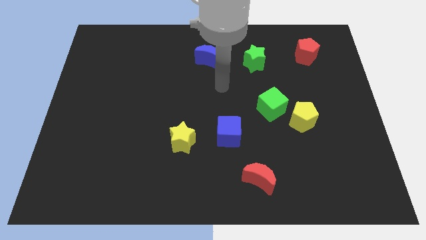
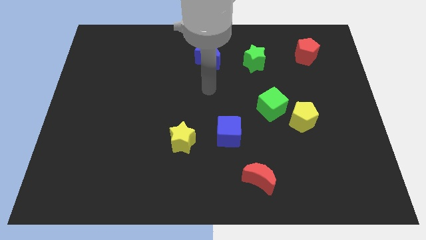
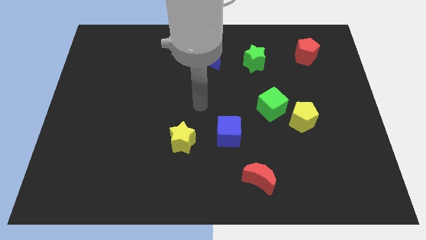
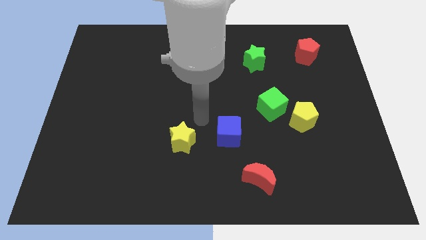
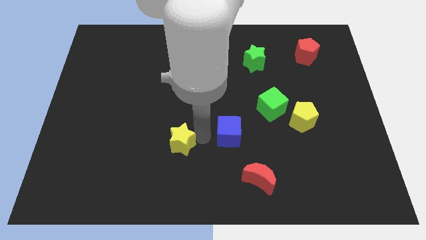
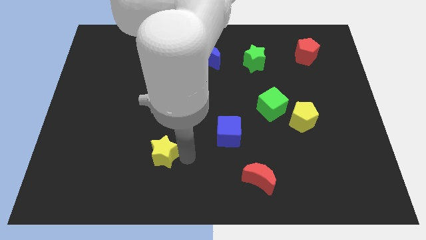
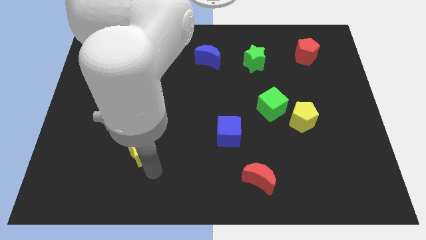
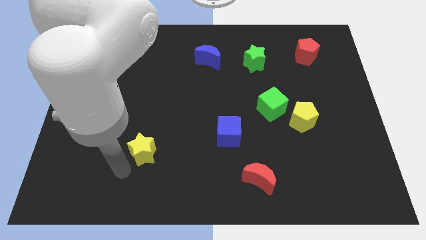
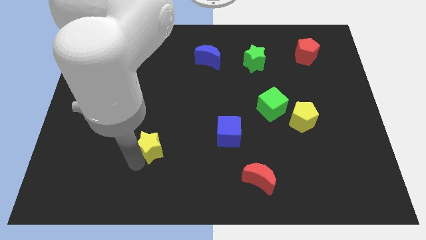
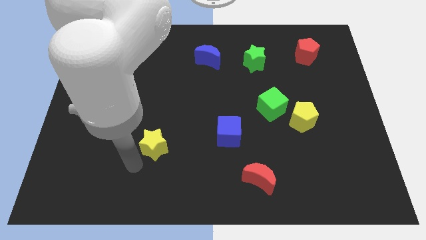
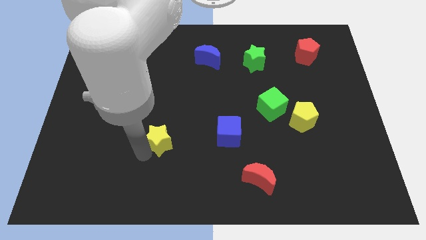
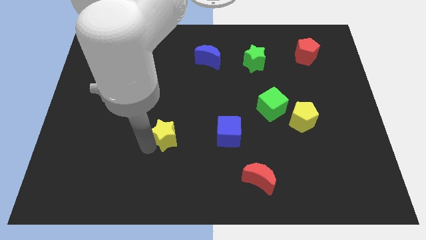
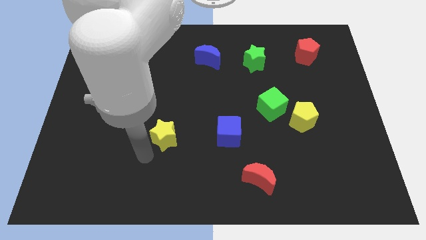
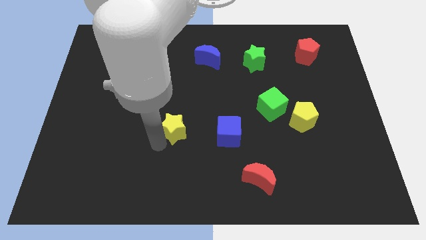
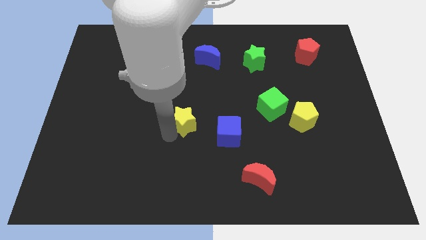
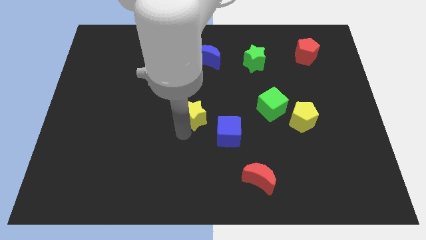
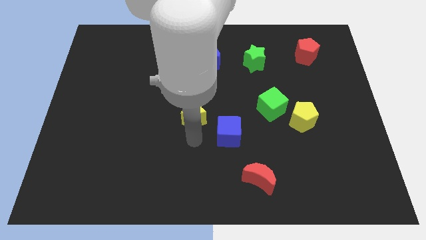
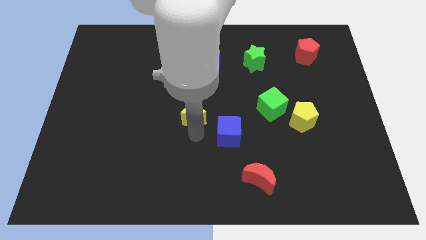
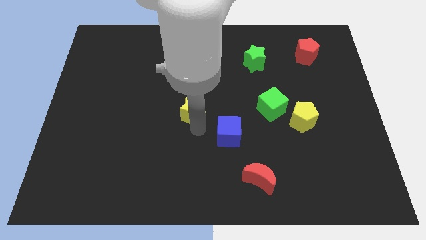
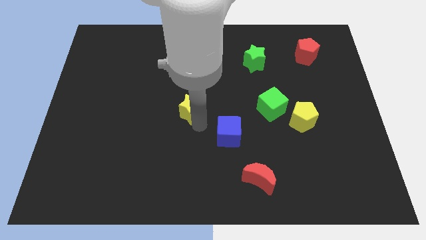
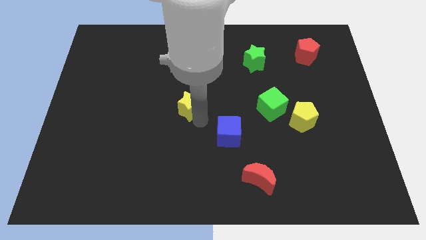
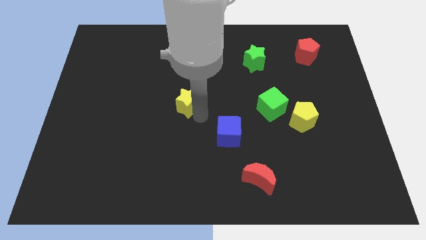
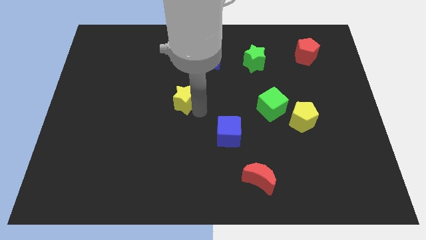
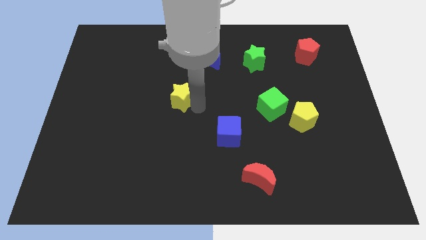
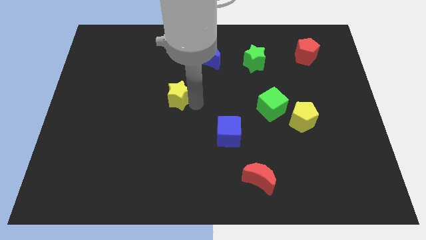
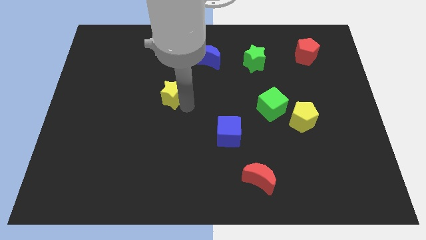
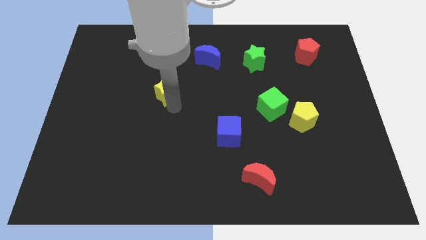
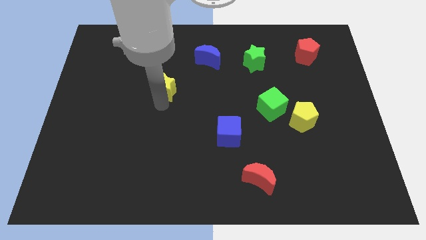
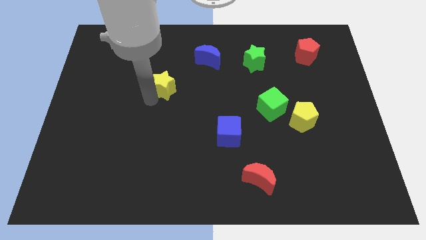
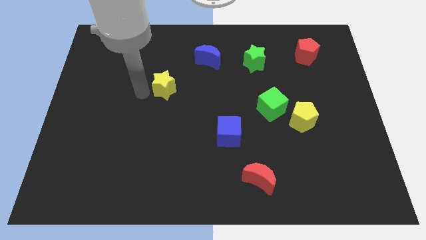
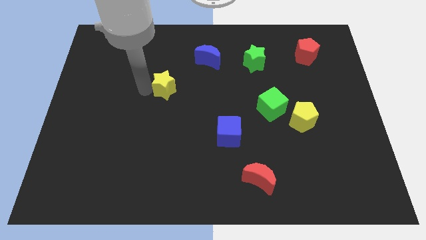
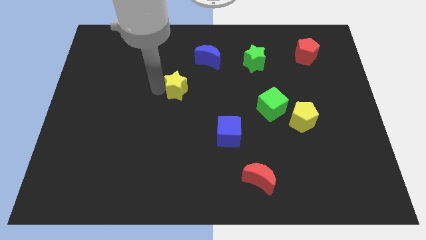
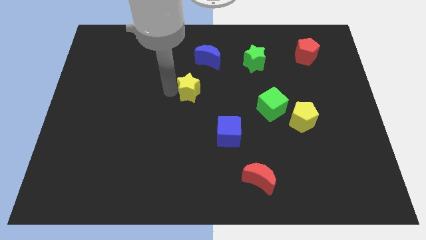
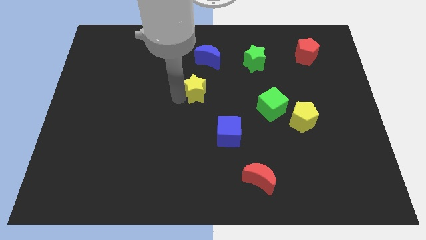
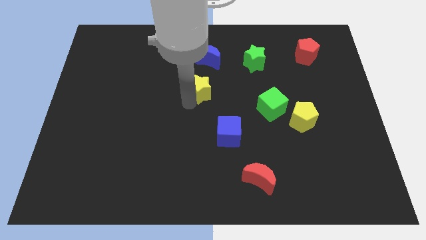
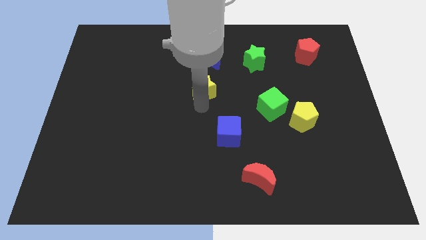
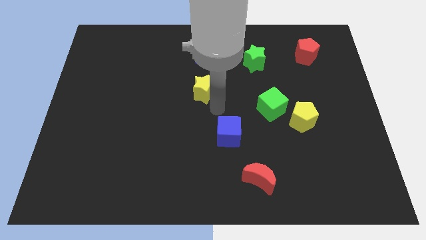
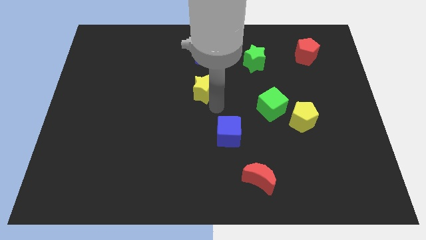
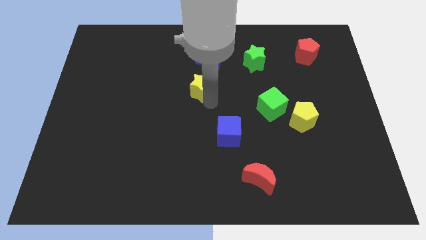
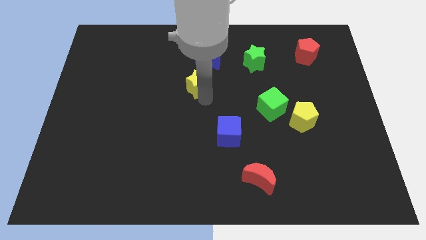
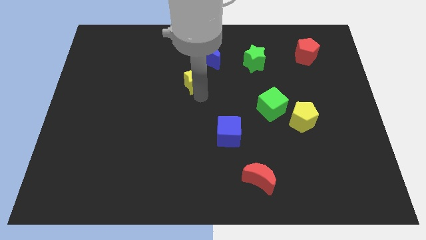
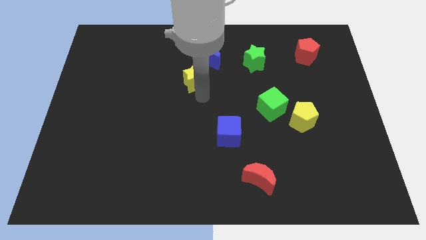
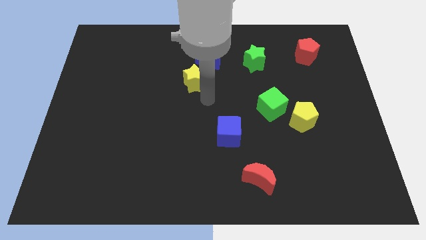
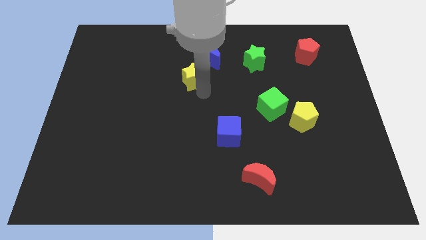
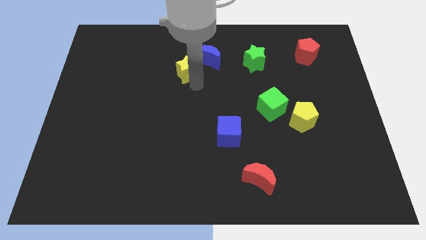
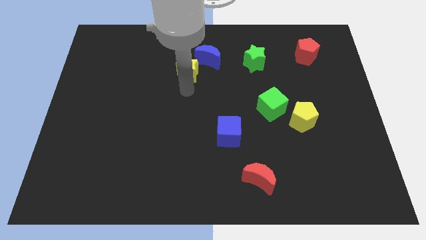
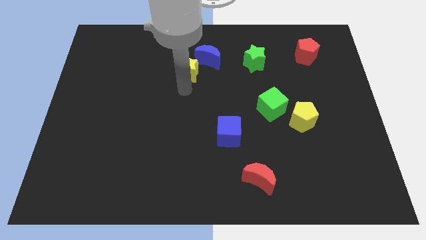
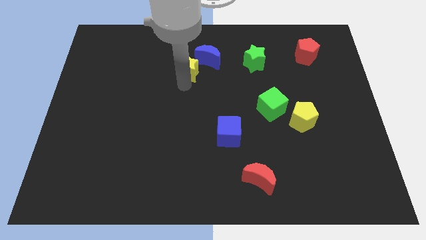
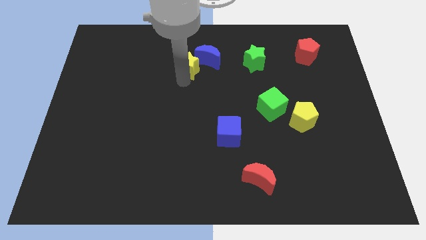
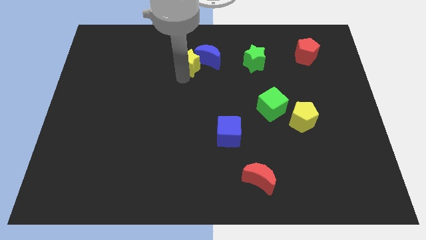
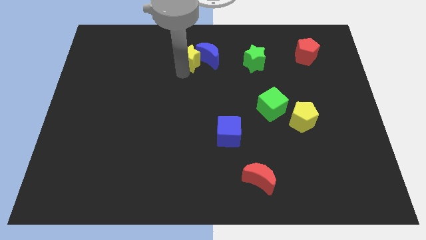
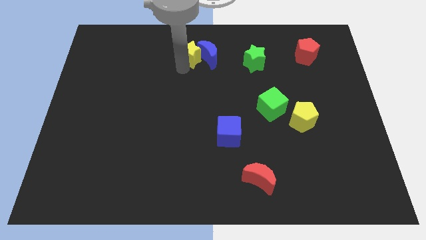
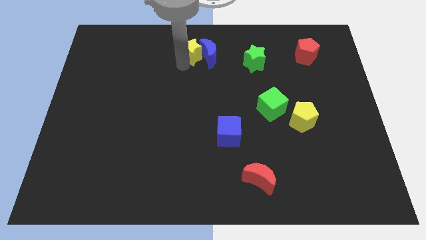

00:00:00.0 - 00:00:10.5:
push the yellow star to the top side

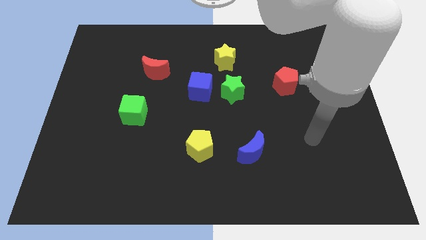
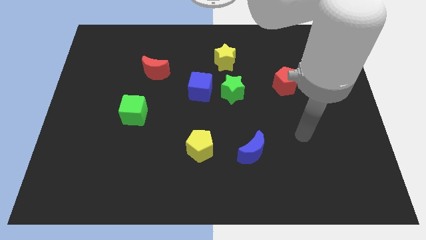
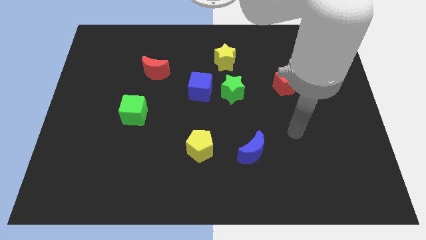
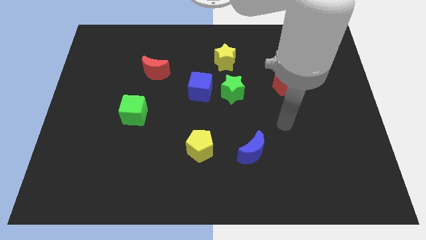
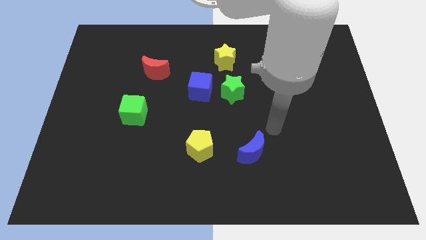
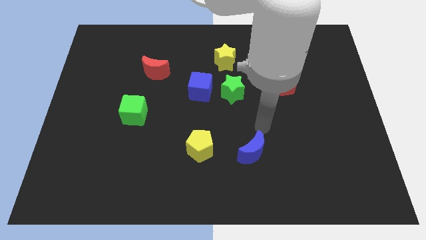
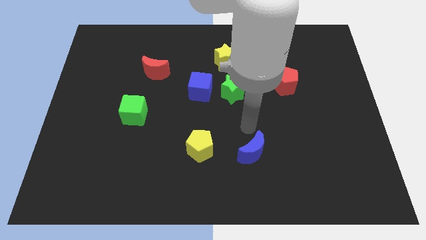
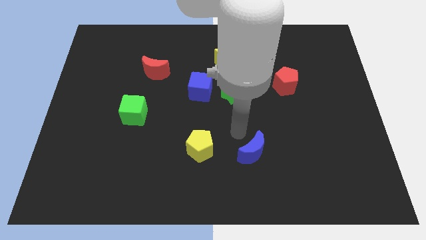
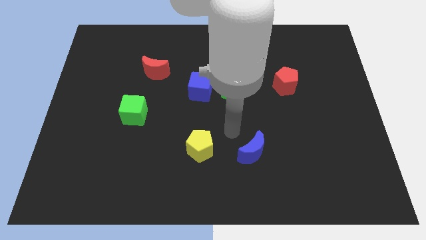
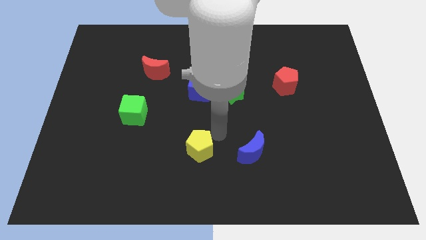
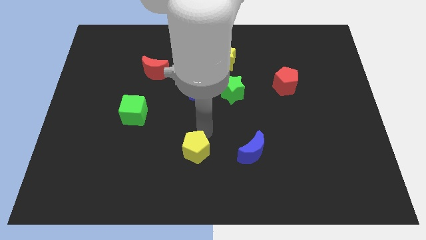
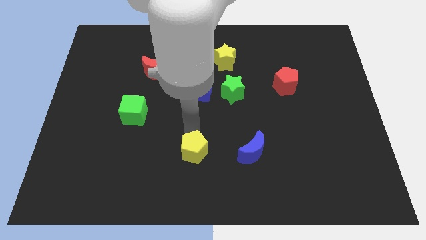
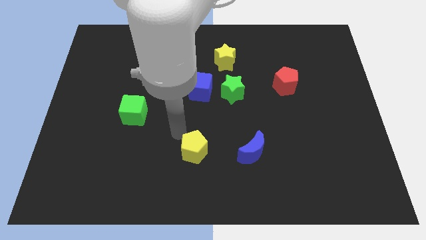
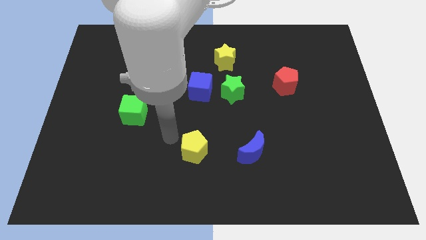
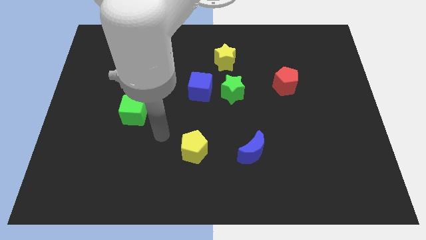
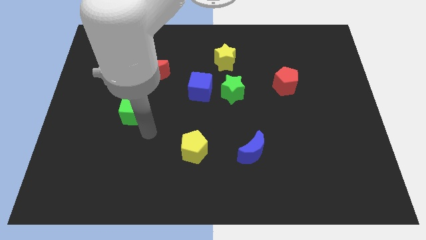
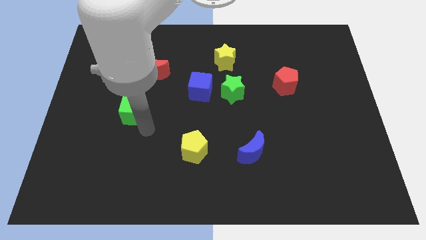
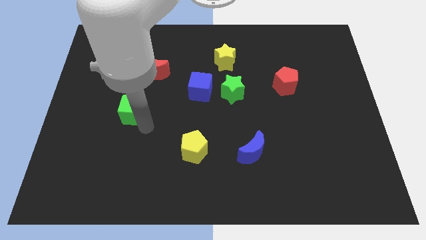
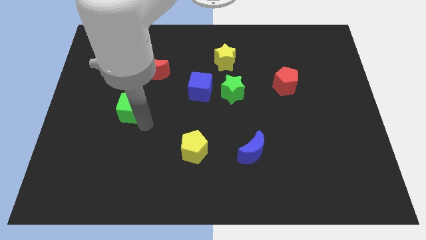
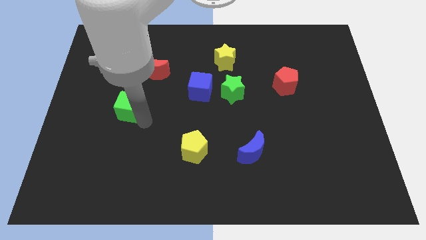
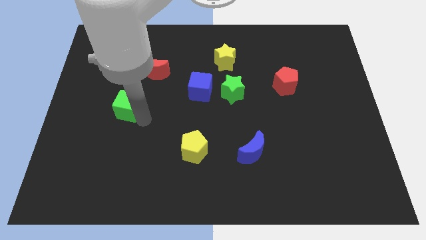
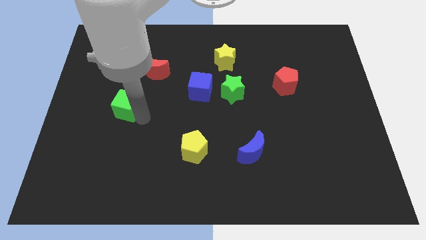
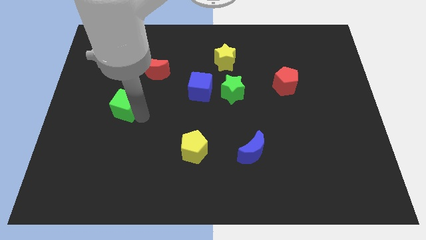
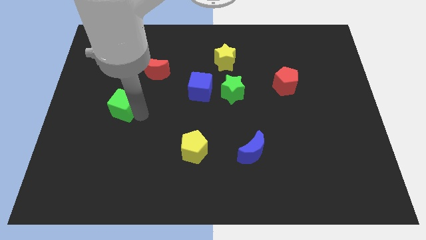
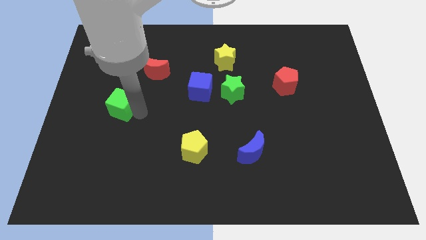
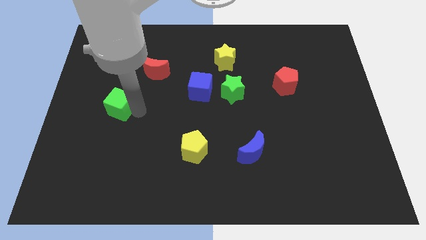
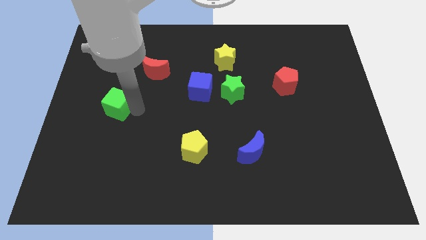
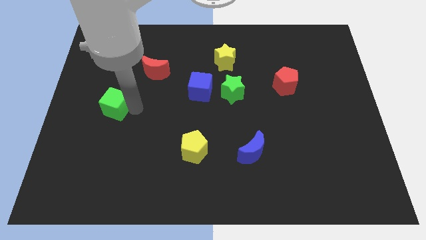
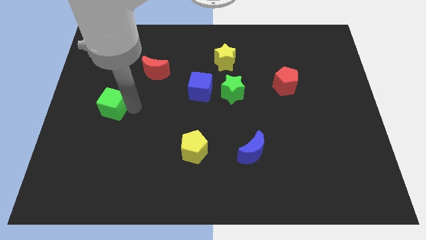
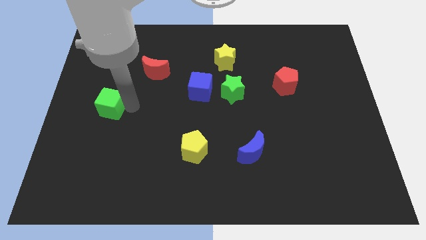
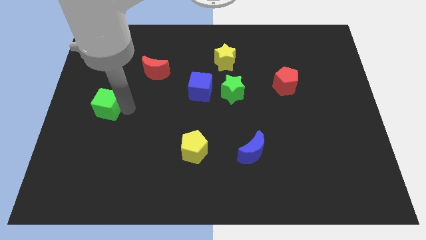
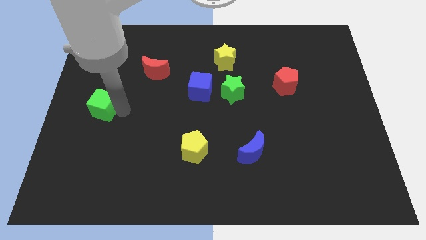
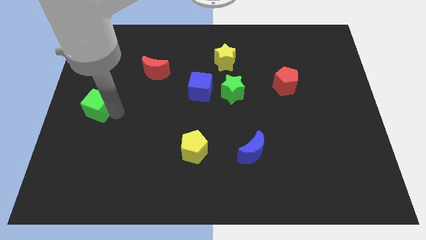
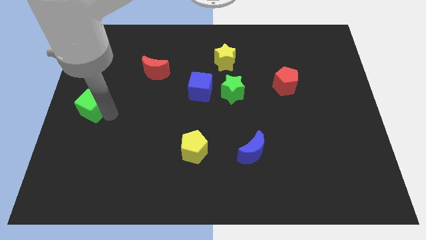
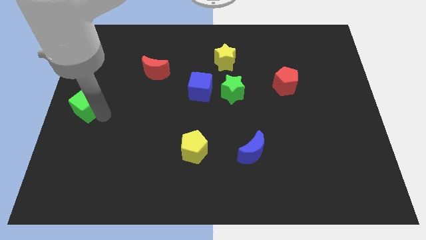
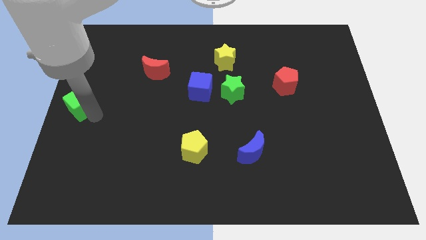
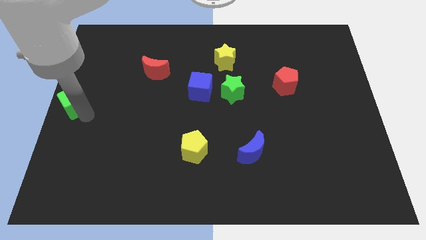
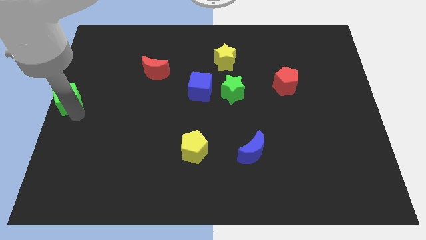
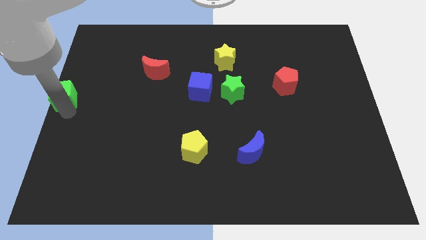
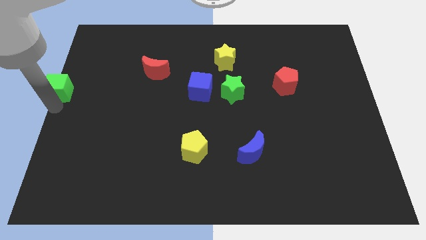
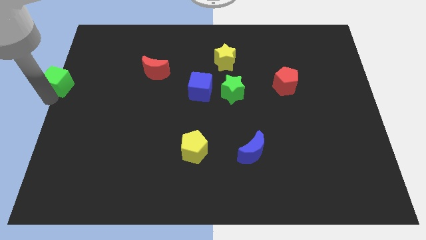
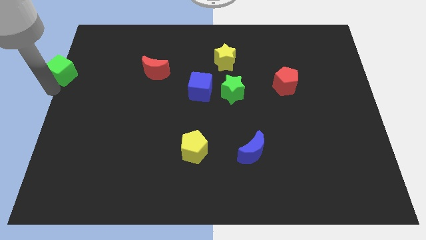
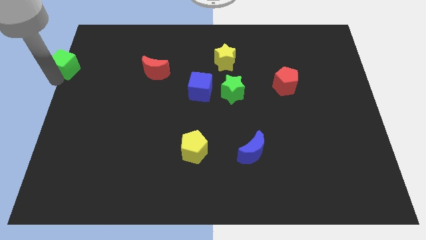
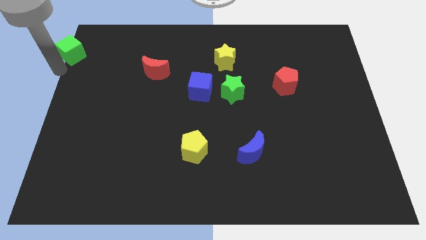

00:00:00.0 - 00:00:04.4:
slide the green cube to the top left
